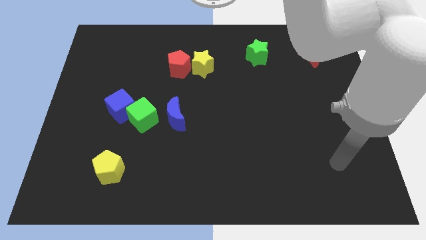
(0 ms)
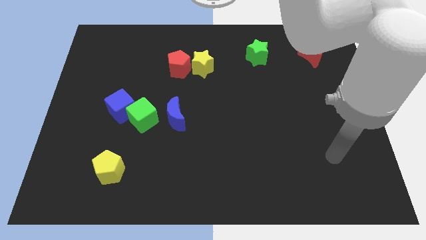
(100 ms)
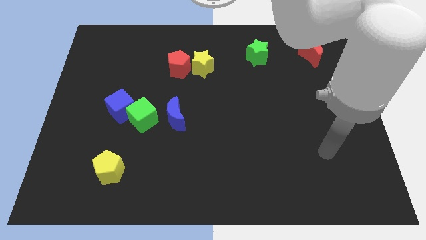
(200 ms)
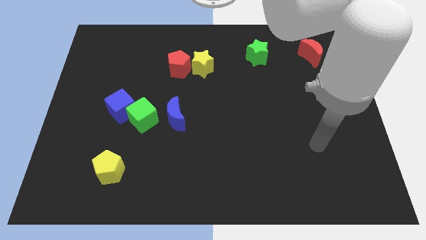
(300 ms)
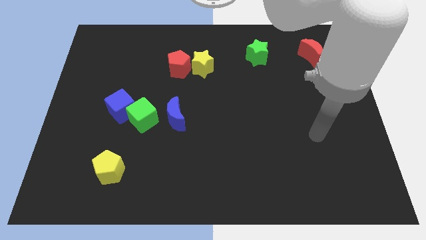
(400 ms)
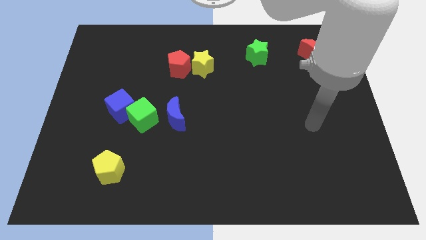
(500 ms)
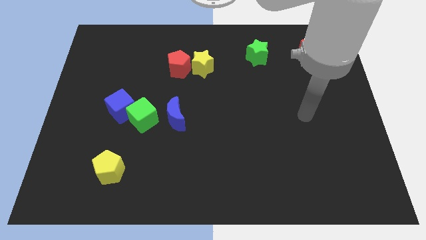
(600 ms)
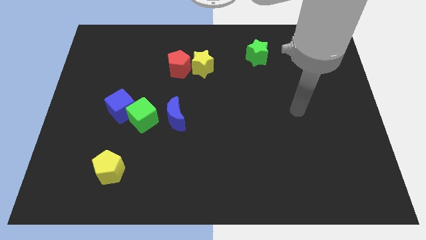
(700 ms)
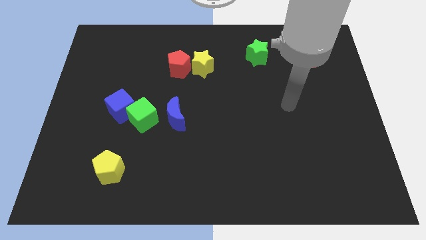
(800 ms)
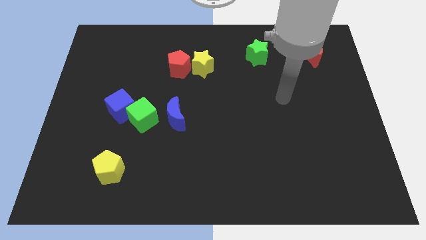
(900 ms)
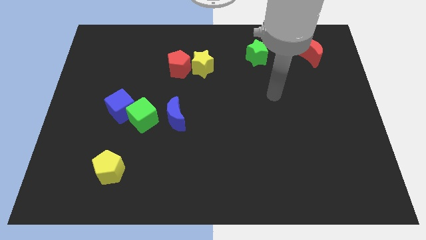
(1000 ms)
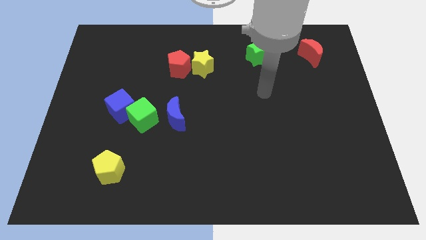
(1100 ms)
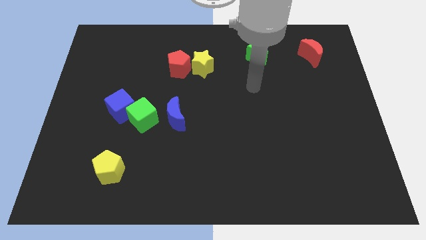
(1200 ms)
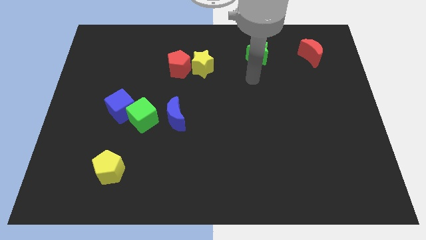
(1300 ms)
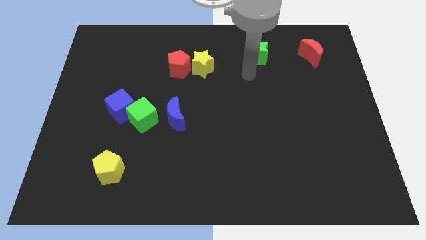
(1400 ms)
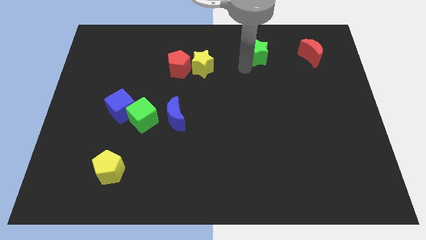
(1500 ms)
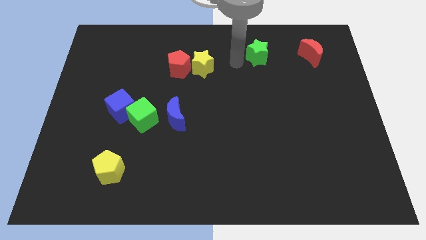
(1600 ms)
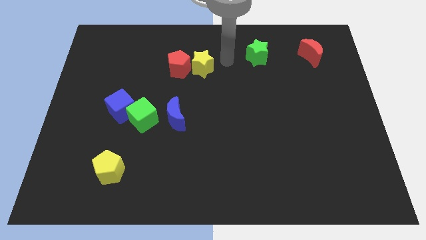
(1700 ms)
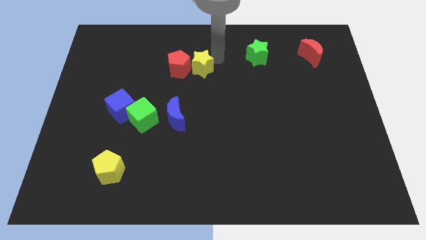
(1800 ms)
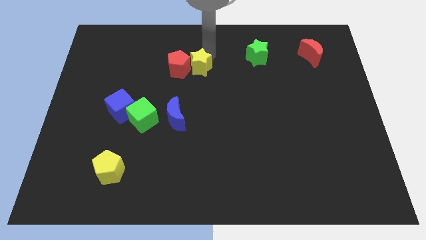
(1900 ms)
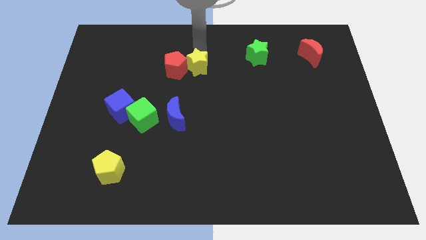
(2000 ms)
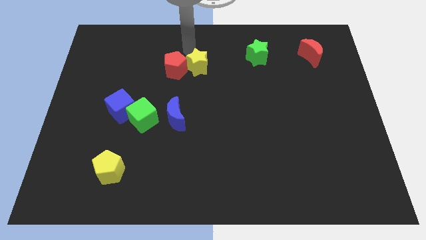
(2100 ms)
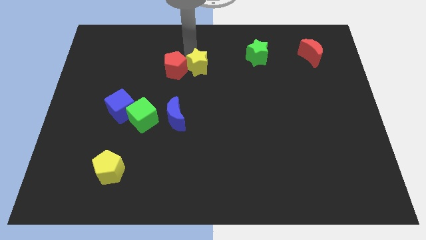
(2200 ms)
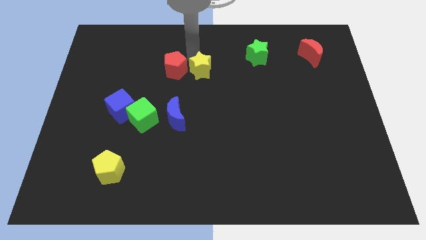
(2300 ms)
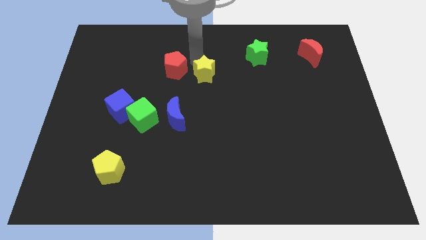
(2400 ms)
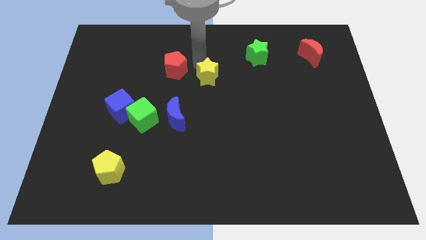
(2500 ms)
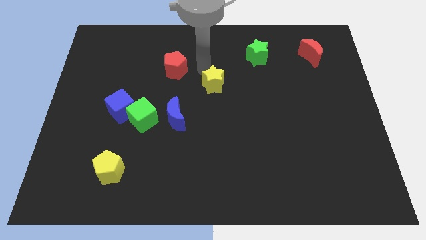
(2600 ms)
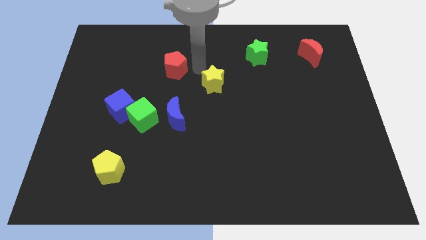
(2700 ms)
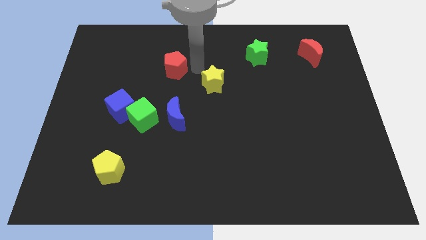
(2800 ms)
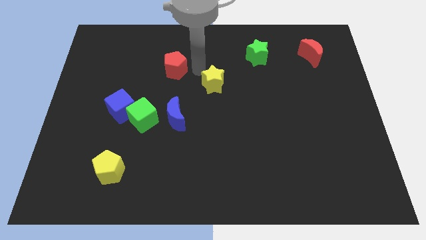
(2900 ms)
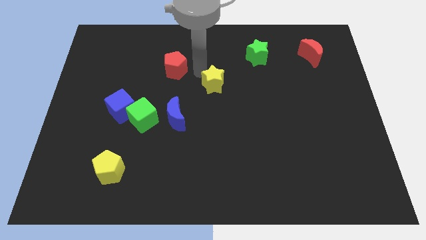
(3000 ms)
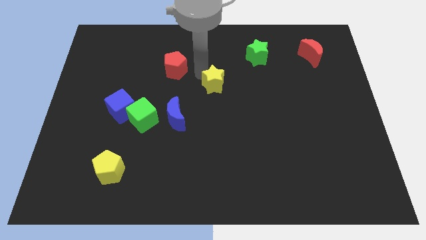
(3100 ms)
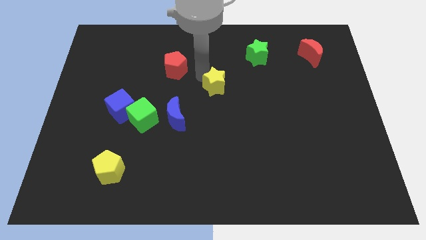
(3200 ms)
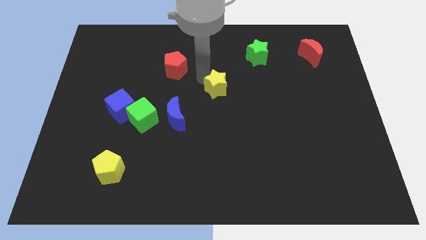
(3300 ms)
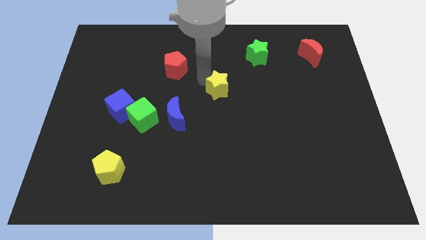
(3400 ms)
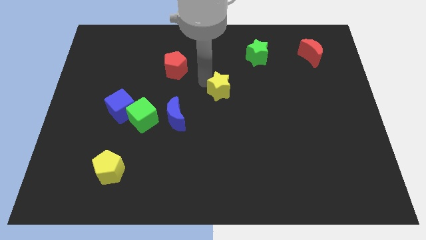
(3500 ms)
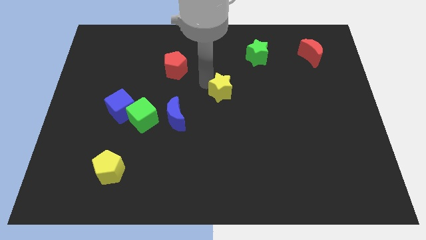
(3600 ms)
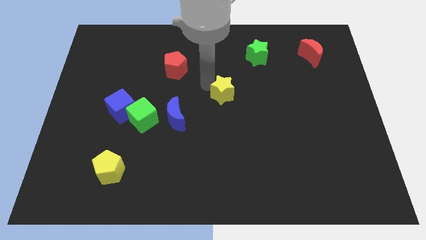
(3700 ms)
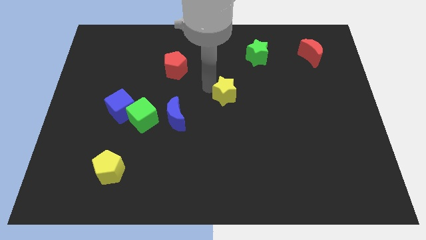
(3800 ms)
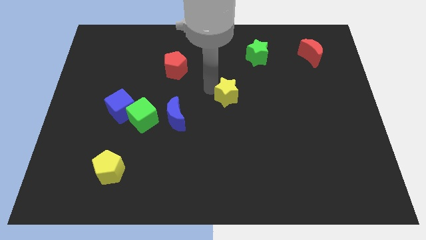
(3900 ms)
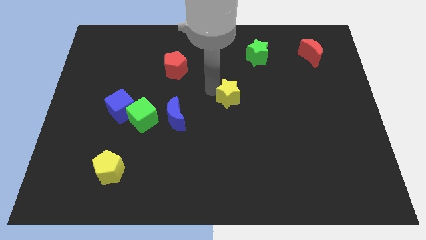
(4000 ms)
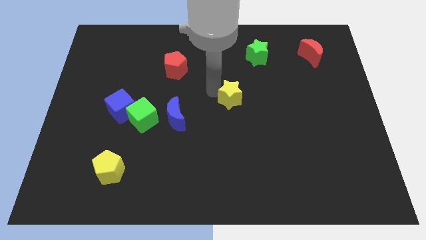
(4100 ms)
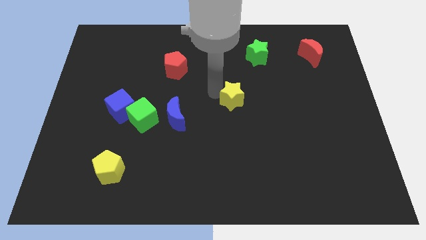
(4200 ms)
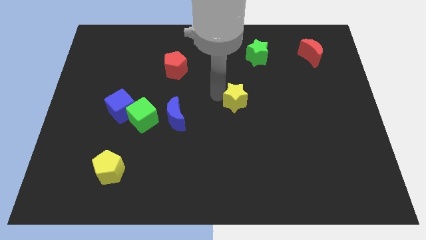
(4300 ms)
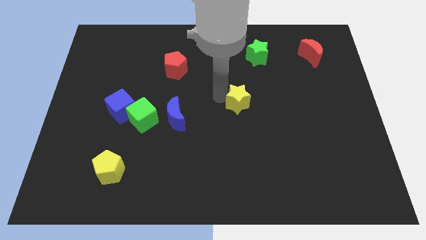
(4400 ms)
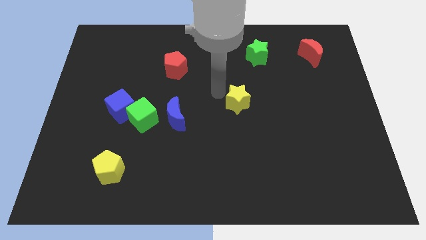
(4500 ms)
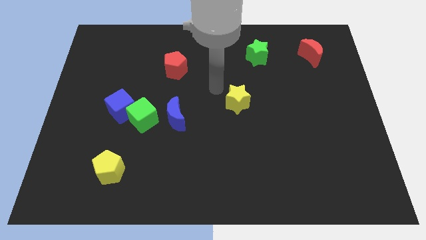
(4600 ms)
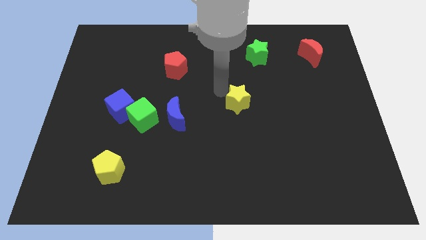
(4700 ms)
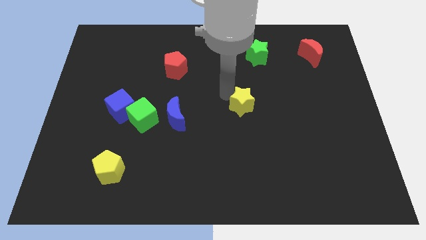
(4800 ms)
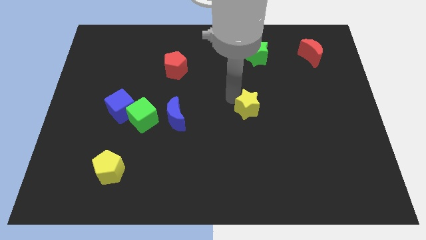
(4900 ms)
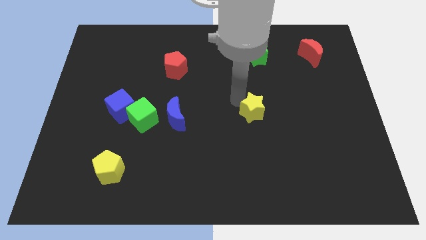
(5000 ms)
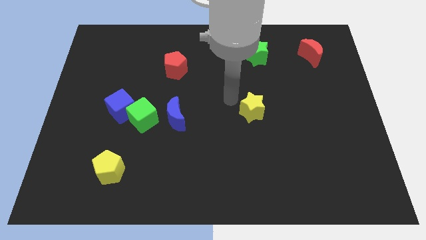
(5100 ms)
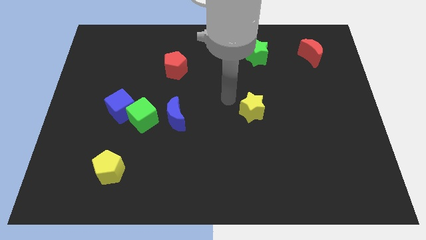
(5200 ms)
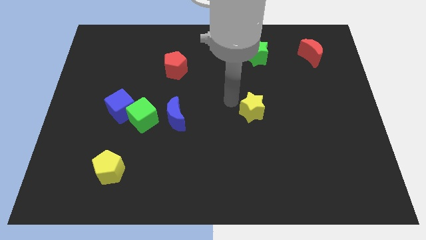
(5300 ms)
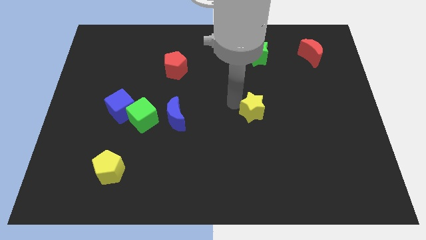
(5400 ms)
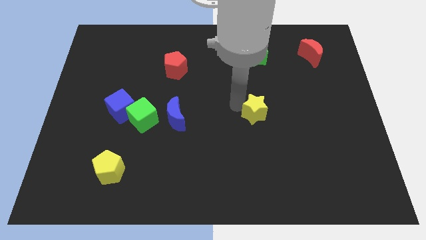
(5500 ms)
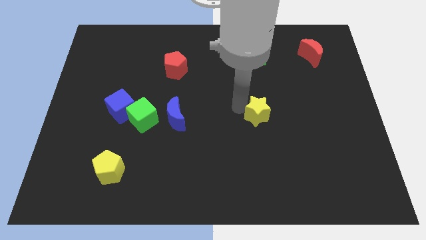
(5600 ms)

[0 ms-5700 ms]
move the yellow star diagonally down and right

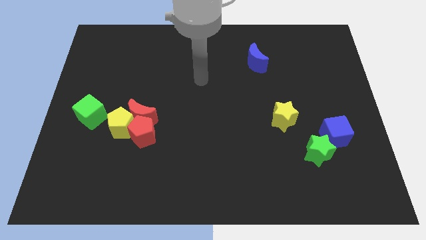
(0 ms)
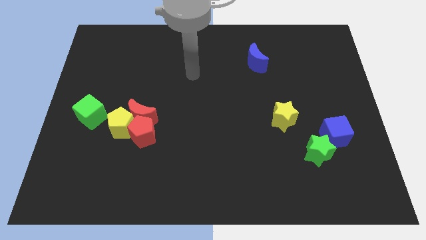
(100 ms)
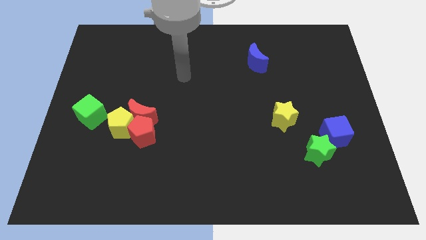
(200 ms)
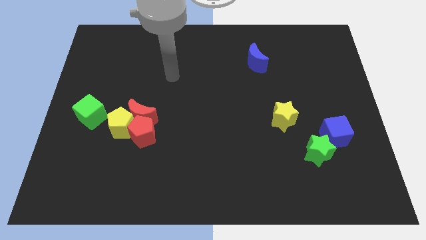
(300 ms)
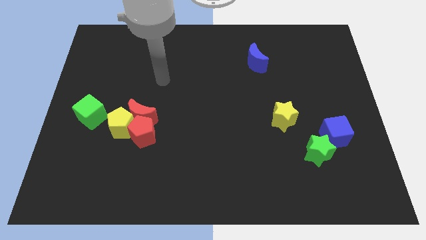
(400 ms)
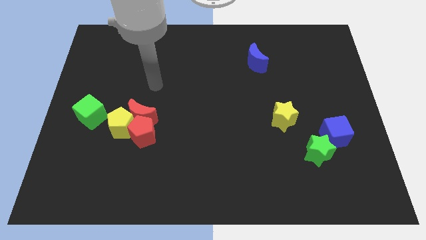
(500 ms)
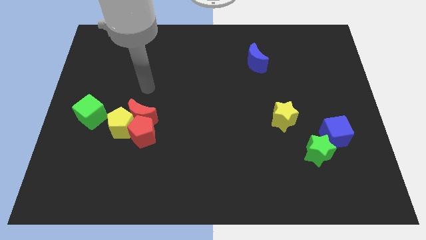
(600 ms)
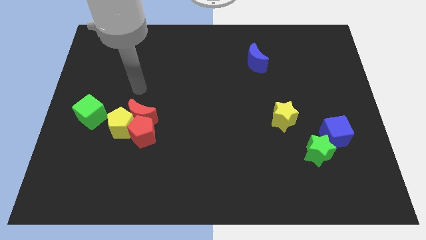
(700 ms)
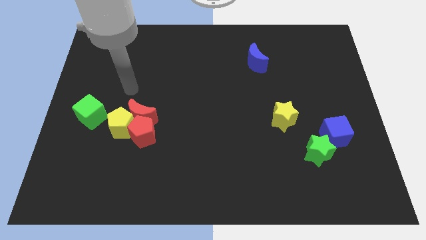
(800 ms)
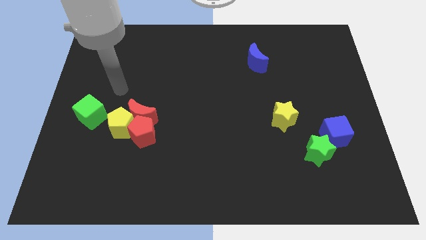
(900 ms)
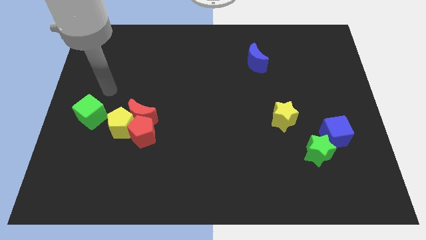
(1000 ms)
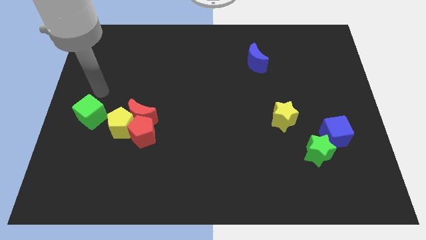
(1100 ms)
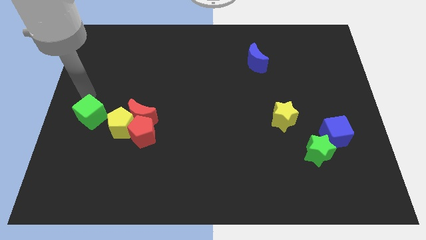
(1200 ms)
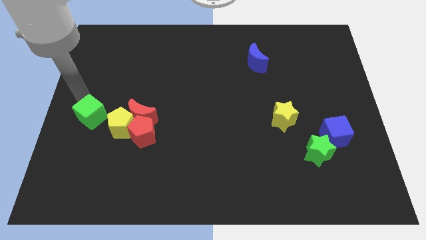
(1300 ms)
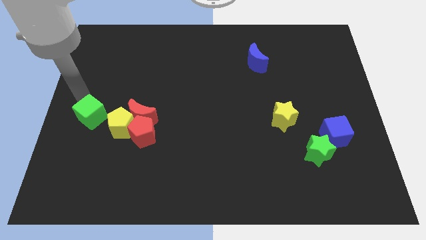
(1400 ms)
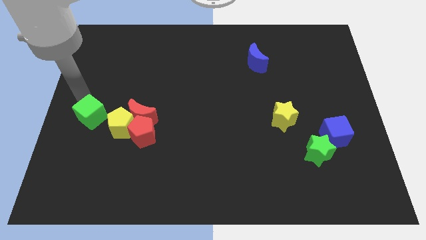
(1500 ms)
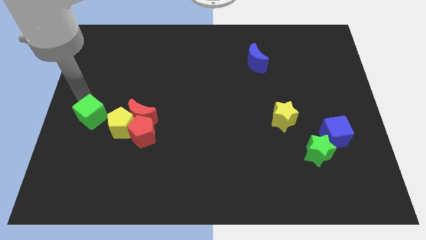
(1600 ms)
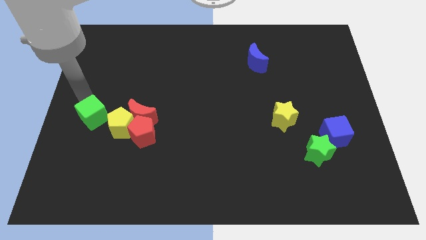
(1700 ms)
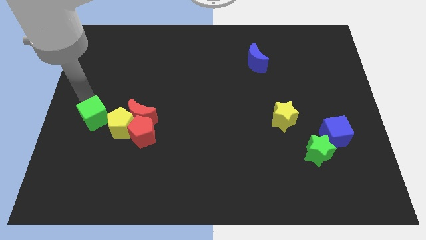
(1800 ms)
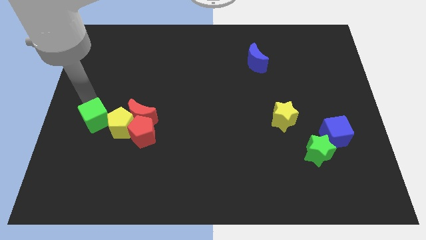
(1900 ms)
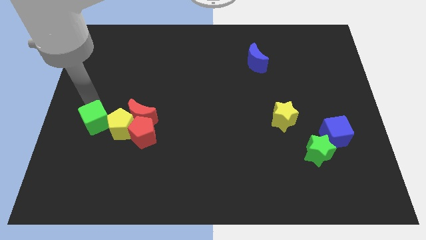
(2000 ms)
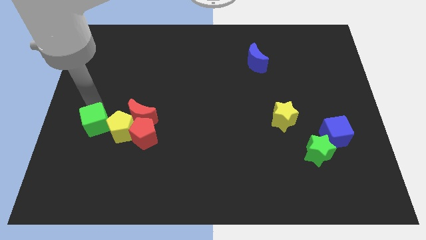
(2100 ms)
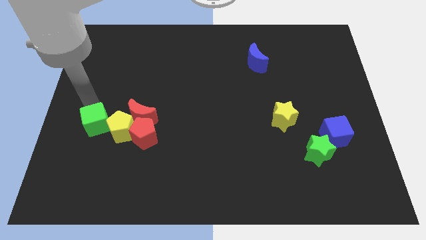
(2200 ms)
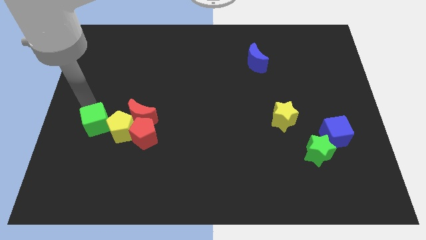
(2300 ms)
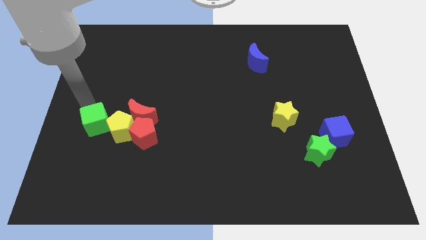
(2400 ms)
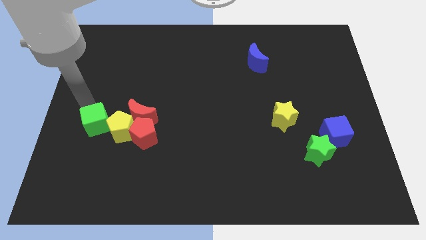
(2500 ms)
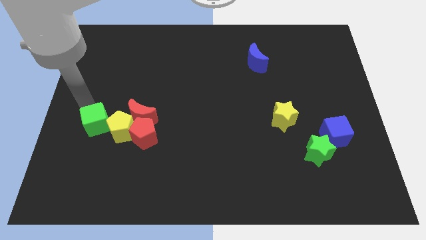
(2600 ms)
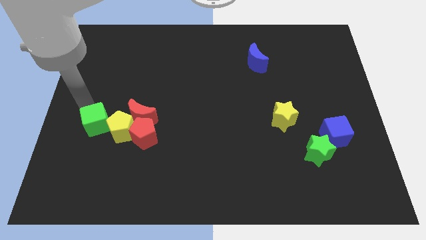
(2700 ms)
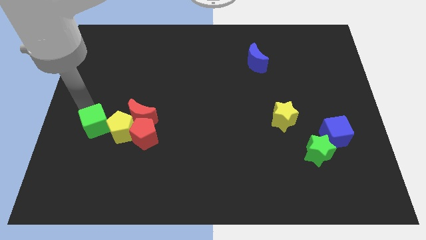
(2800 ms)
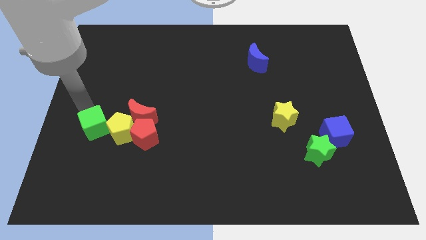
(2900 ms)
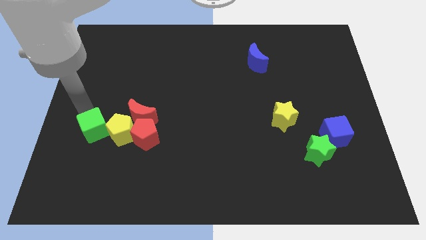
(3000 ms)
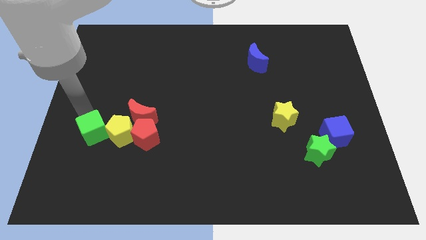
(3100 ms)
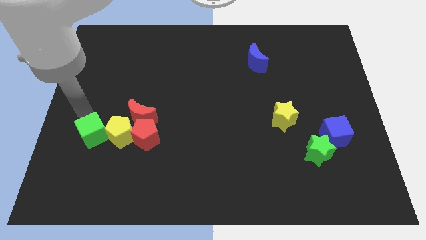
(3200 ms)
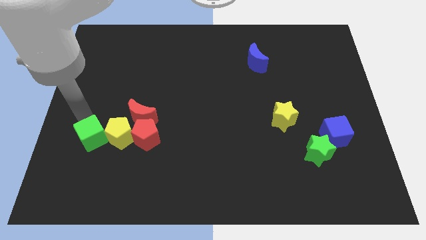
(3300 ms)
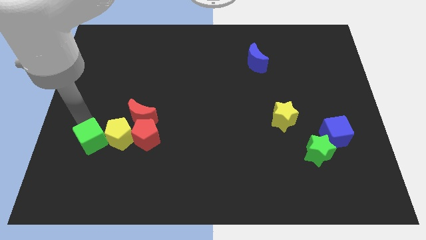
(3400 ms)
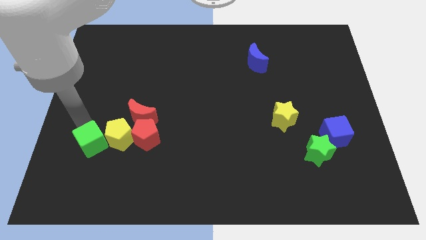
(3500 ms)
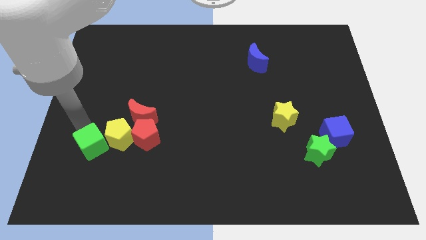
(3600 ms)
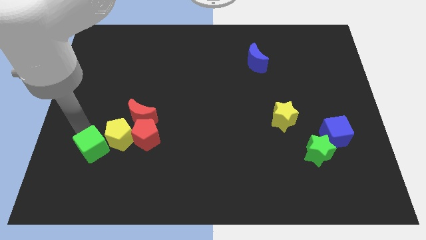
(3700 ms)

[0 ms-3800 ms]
slide the green cube down and to the right diagonally a little bit
